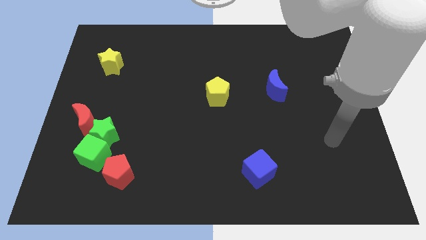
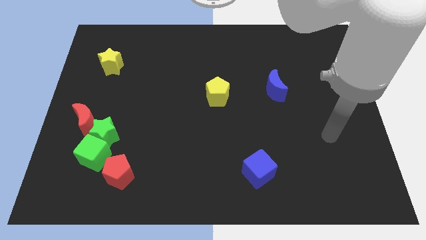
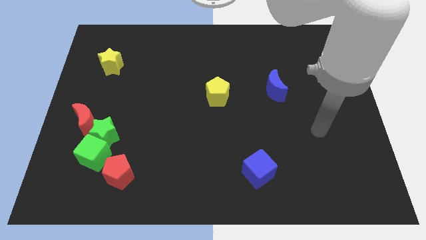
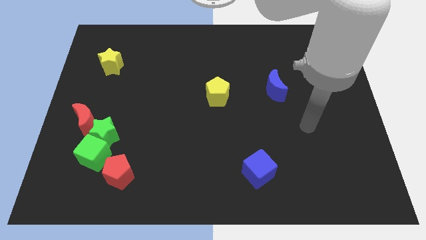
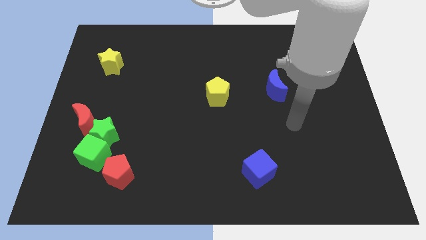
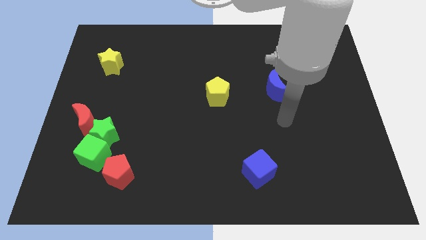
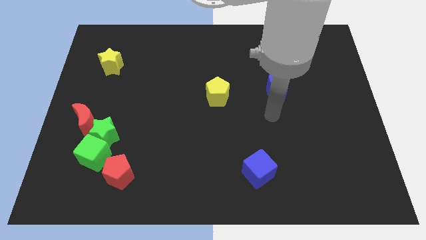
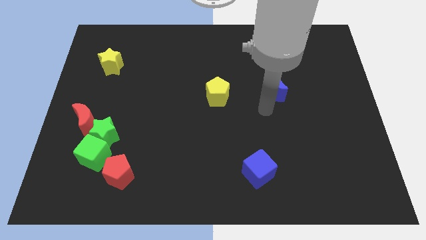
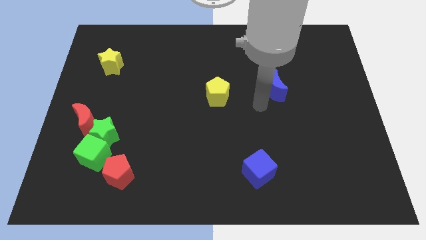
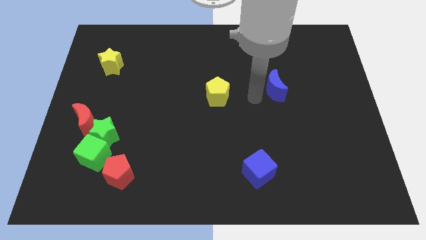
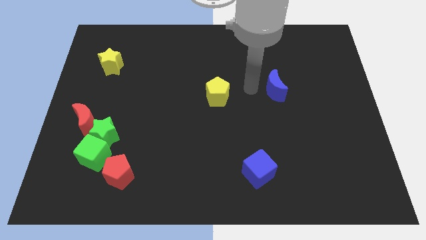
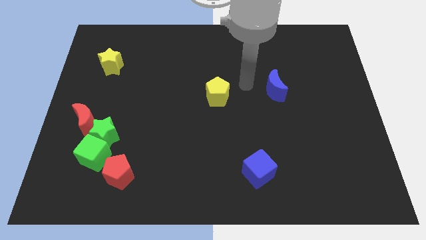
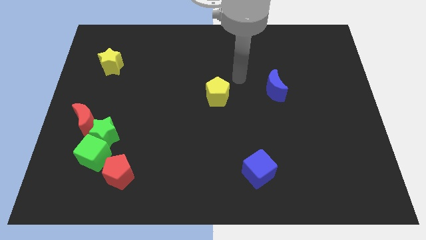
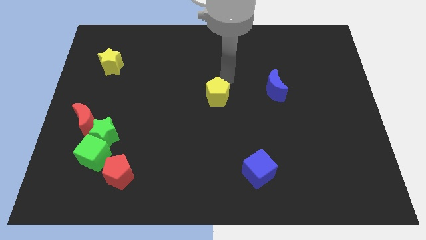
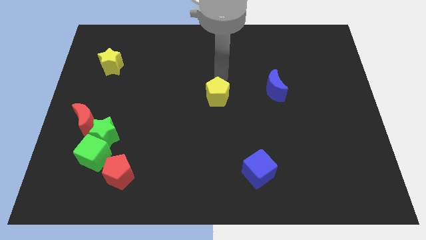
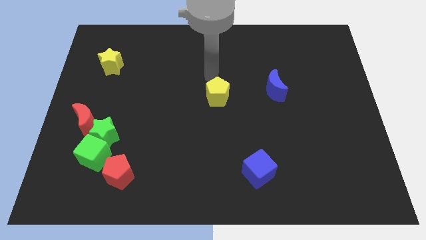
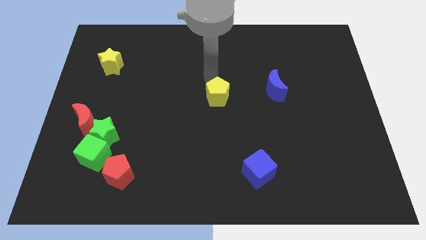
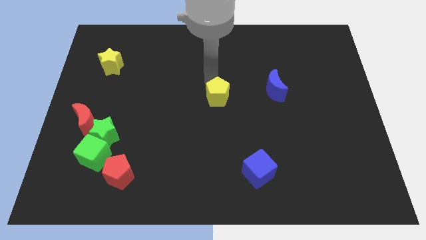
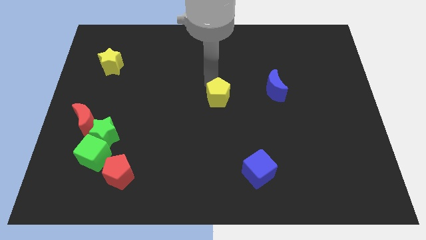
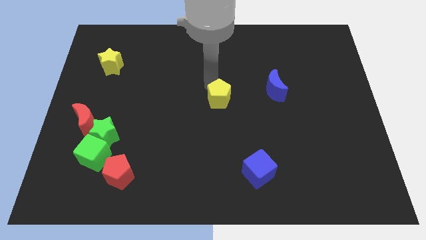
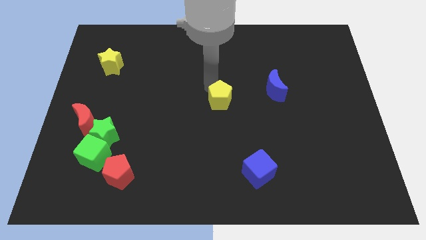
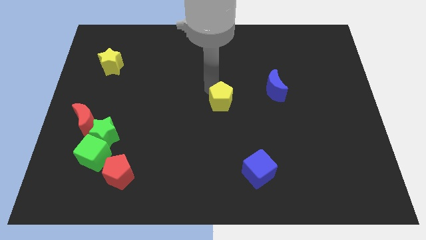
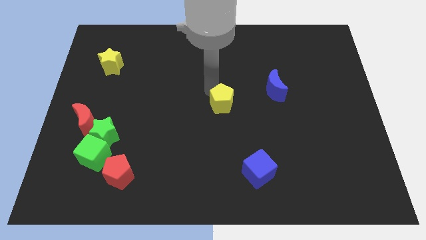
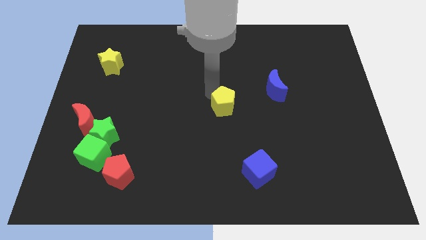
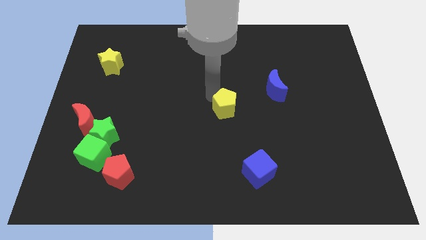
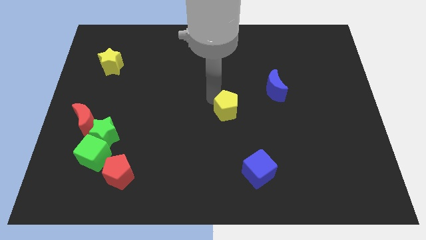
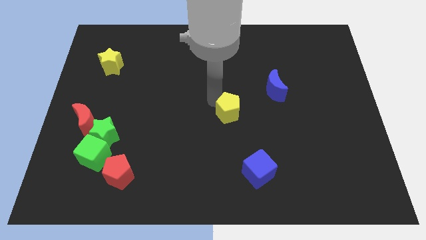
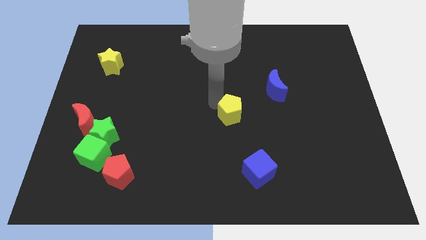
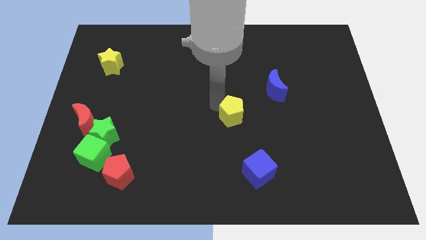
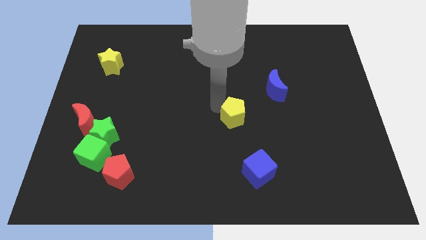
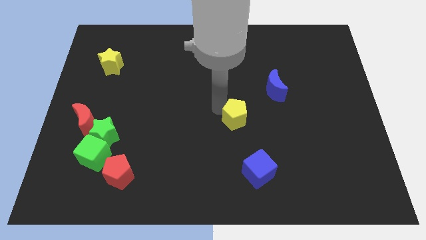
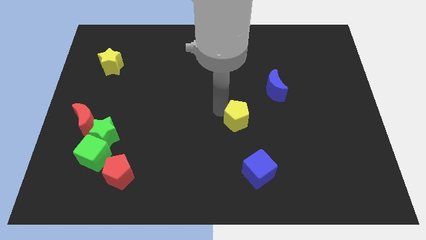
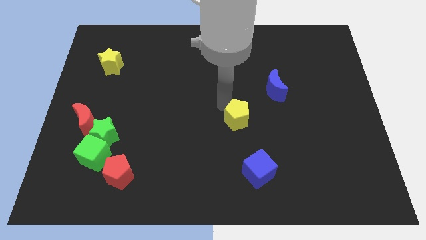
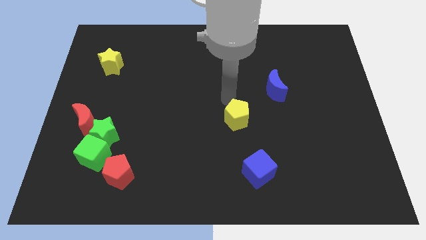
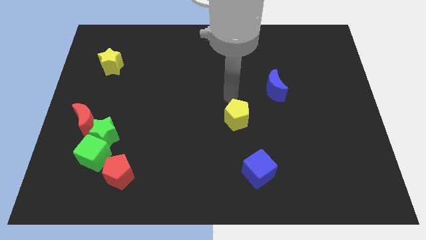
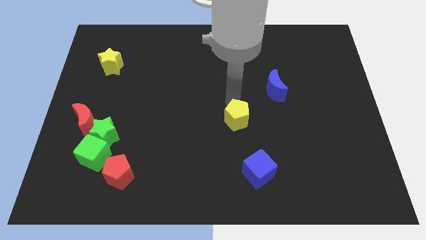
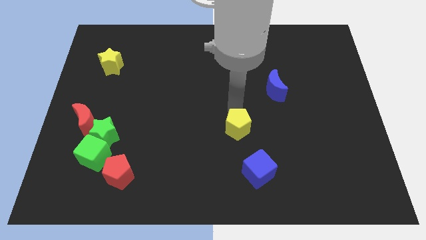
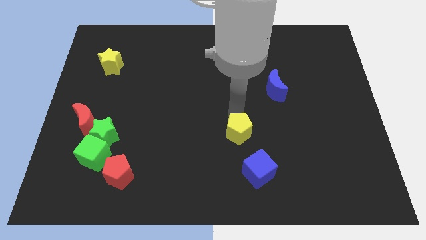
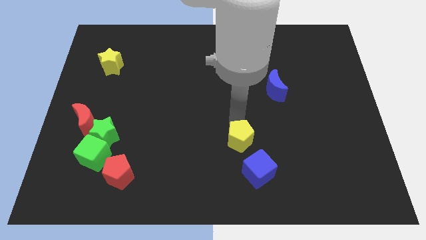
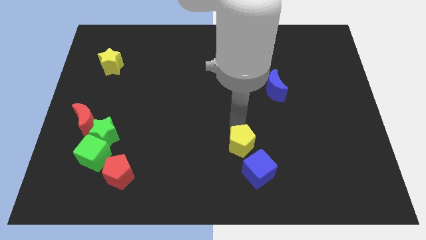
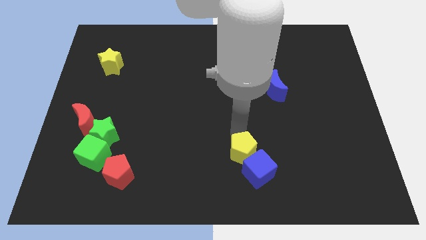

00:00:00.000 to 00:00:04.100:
move the yellow pentagon to the blue cube

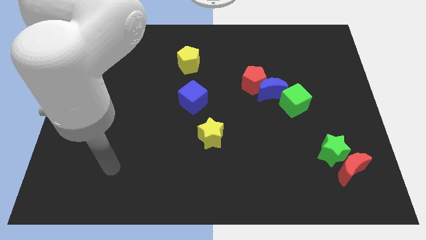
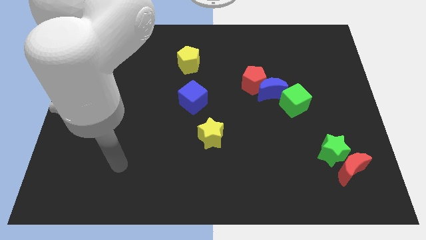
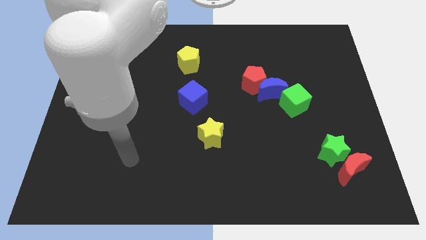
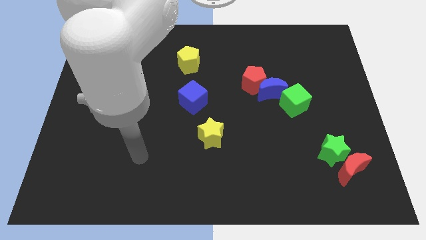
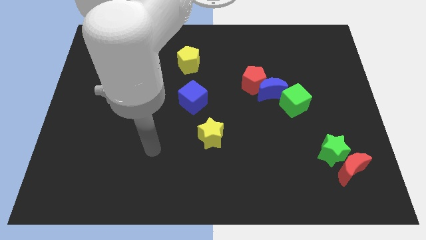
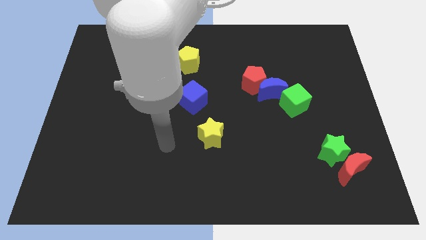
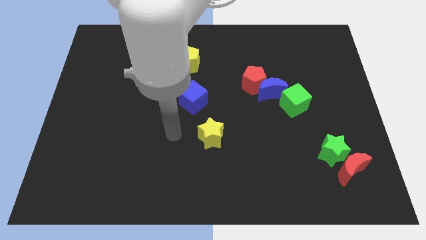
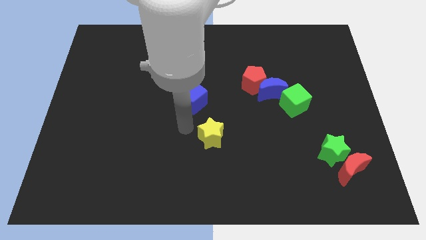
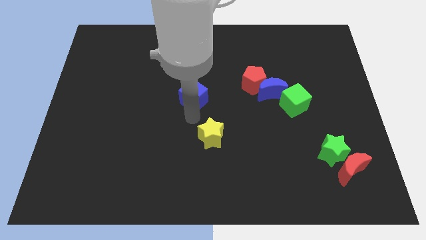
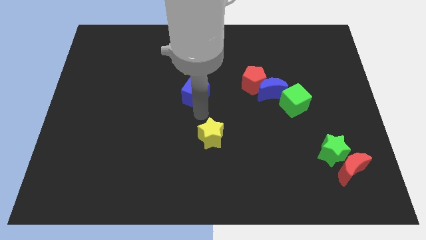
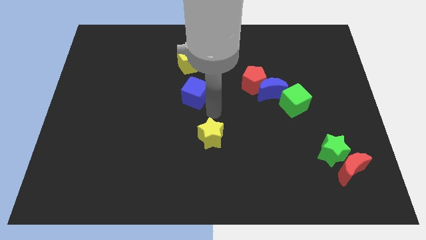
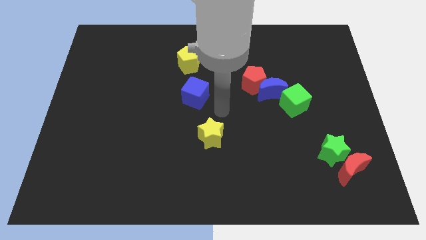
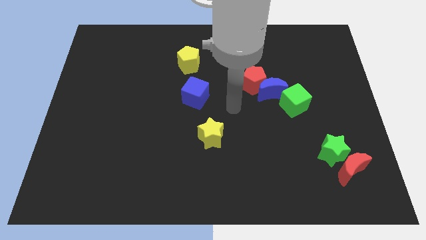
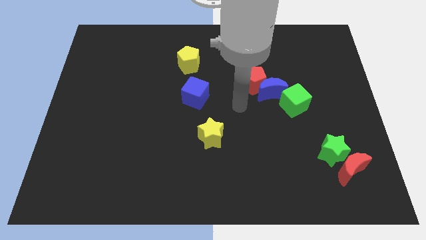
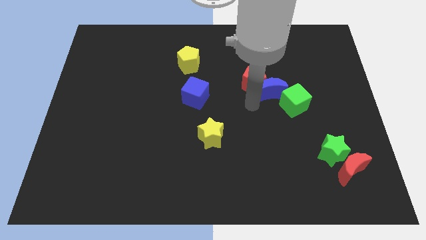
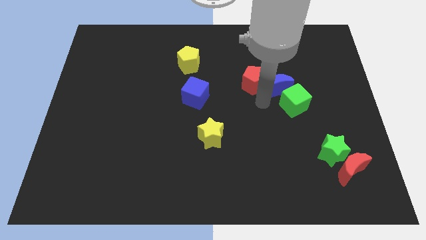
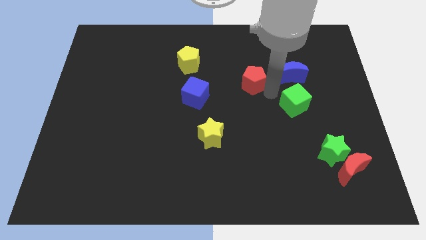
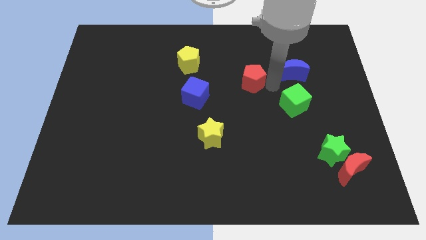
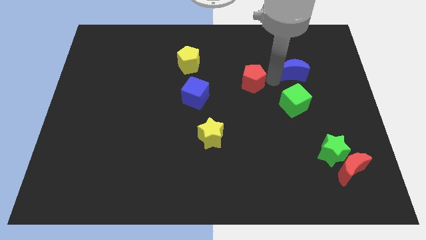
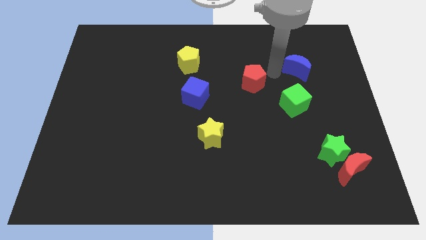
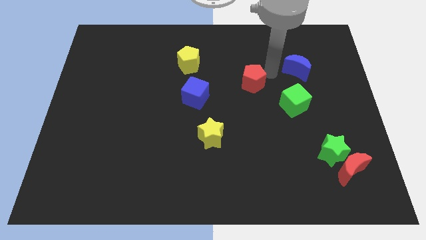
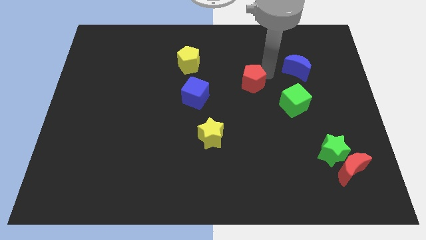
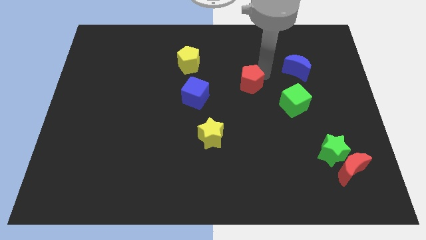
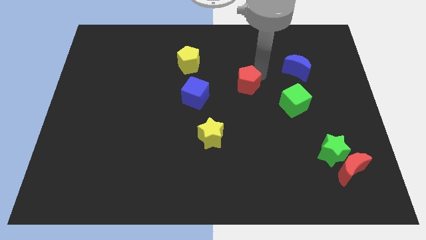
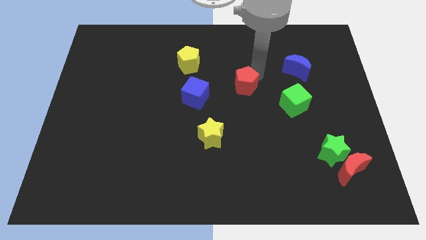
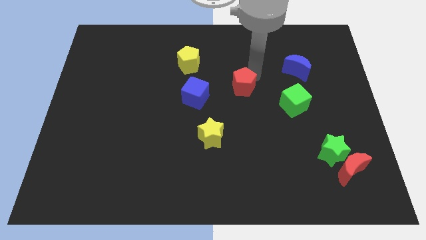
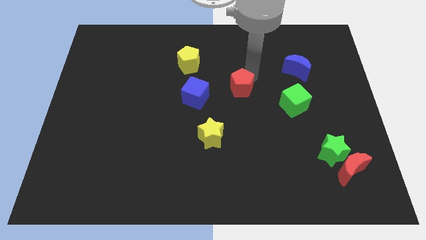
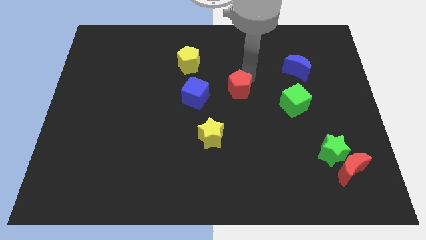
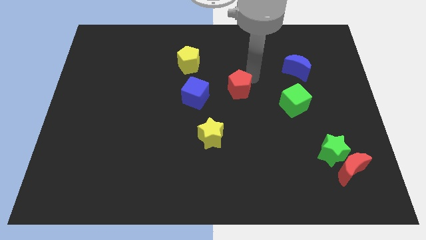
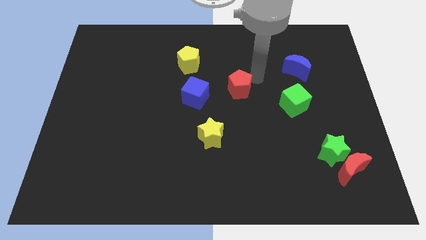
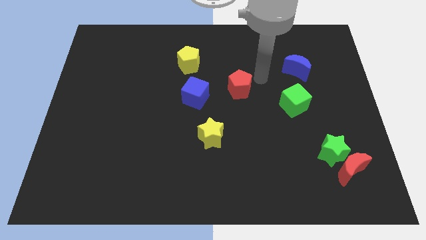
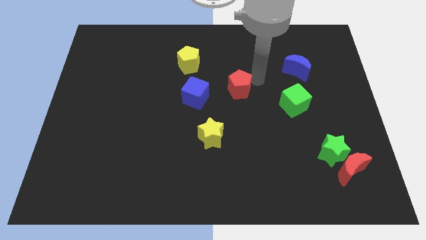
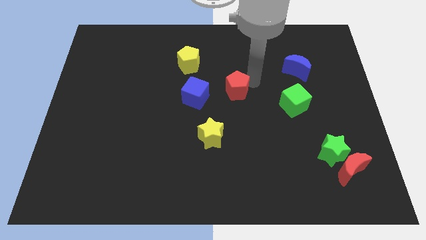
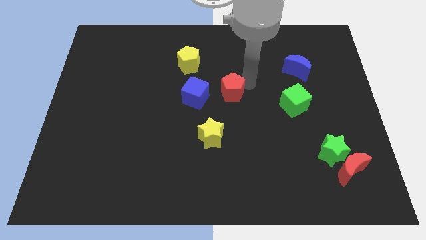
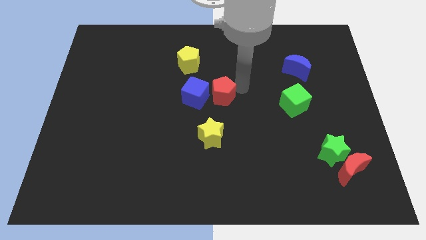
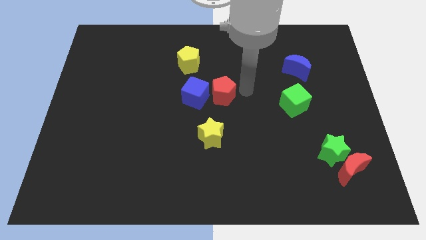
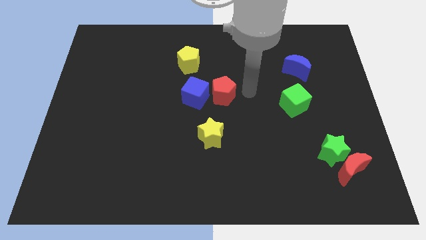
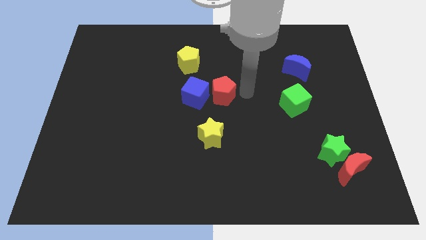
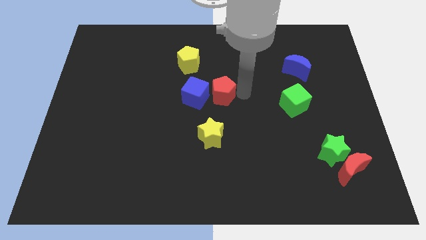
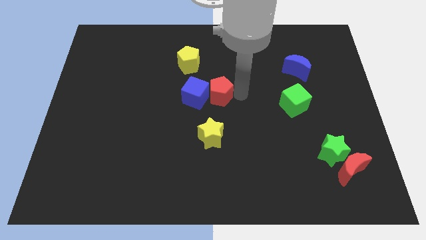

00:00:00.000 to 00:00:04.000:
slide the red pentagon towards the blue cube

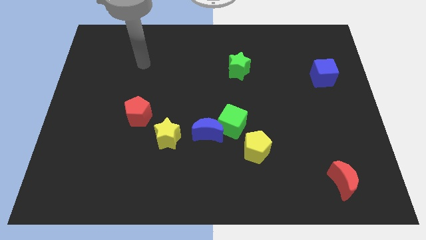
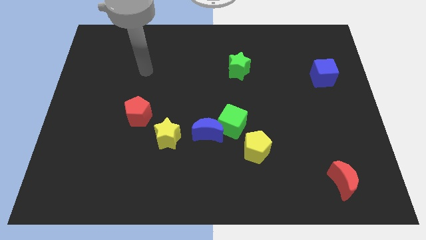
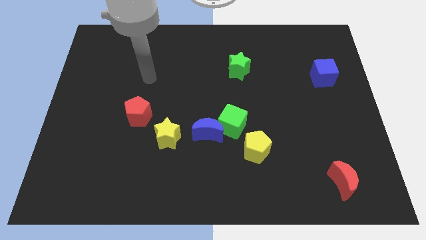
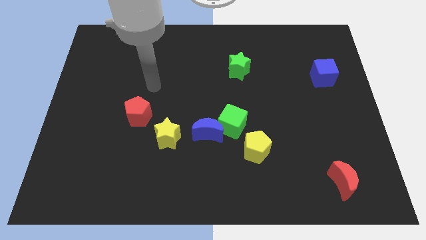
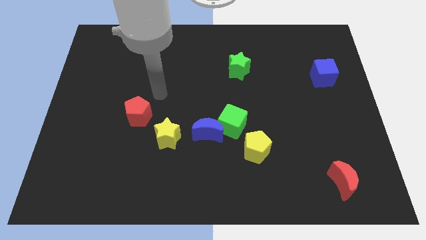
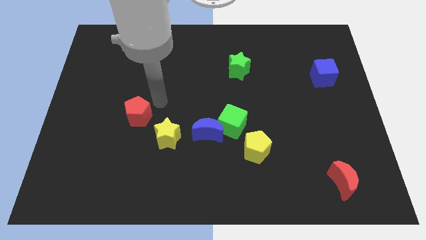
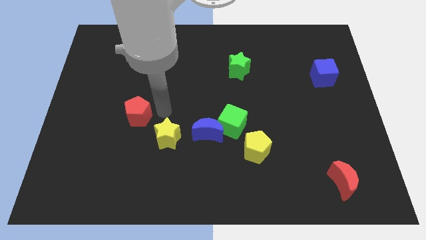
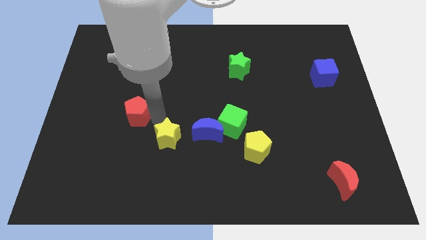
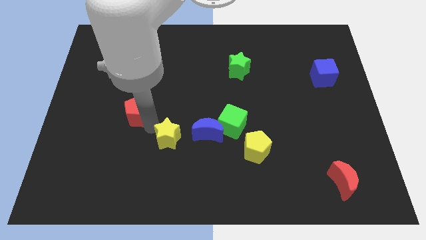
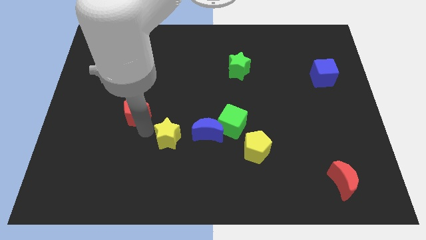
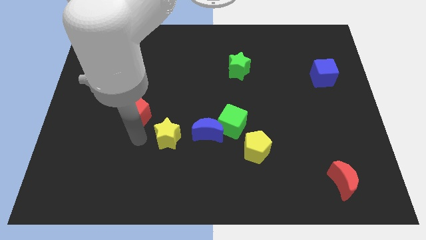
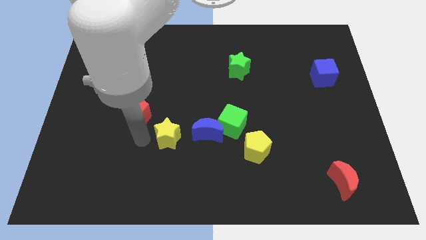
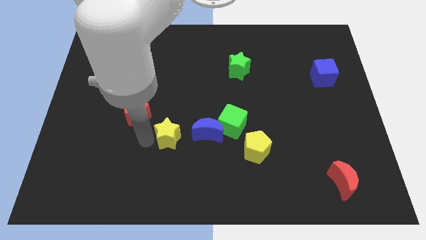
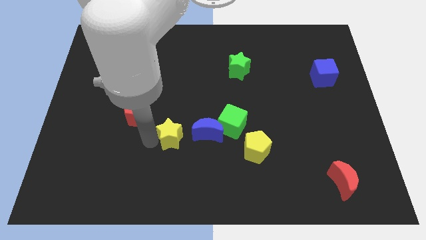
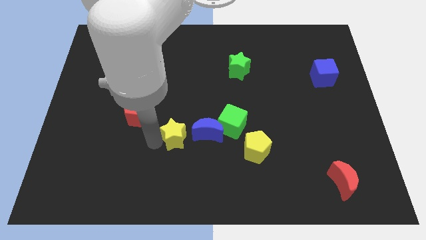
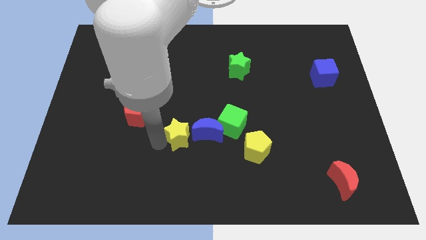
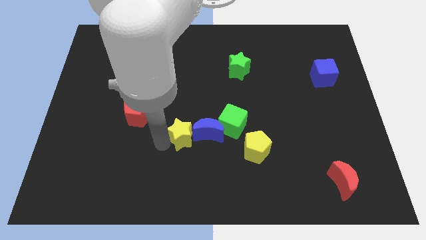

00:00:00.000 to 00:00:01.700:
push the yellow star towards the blue moon
